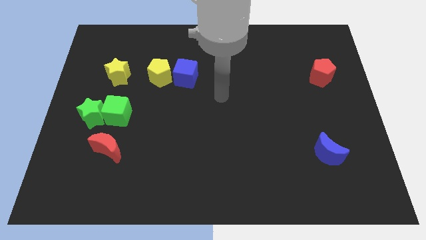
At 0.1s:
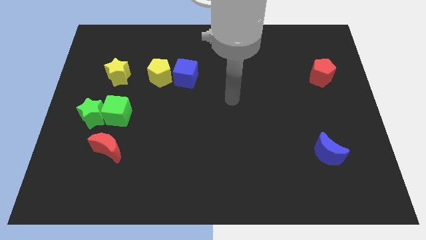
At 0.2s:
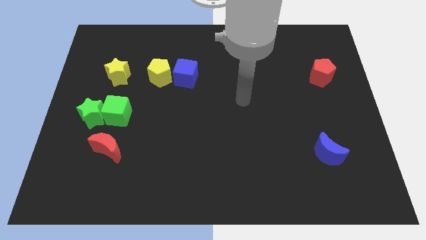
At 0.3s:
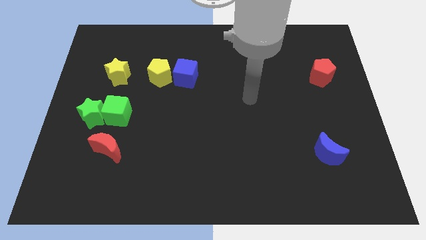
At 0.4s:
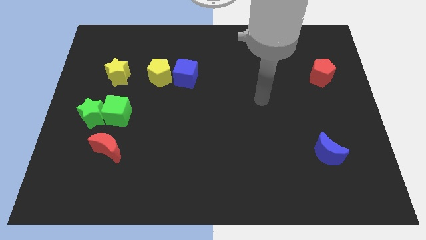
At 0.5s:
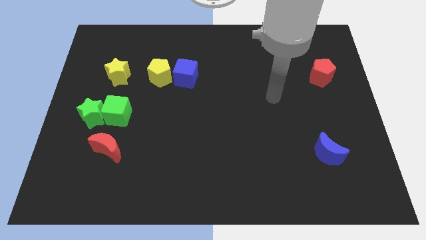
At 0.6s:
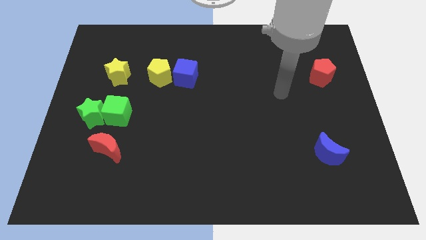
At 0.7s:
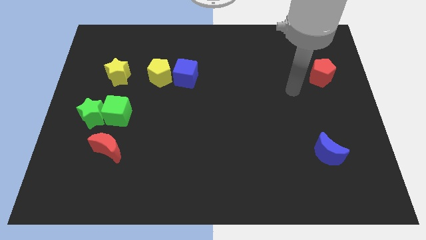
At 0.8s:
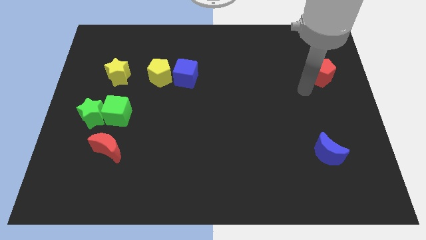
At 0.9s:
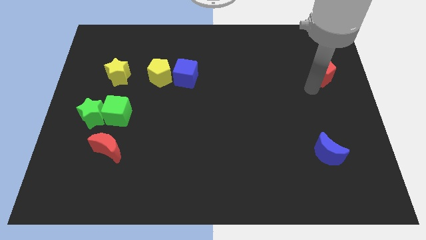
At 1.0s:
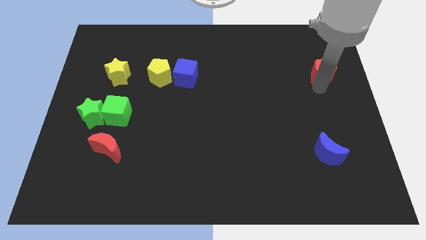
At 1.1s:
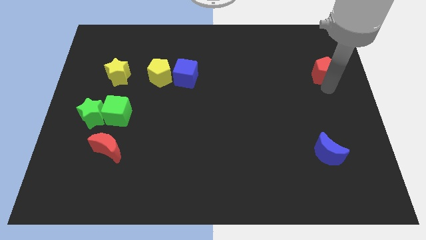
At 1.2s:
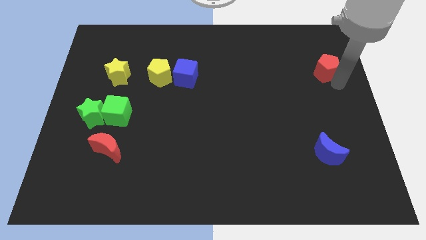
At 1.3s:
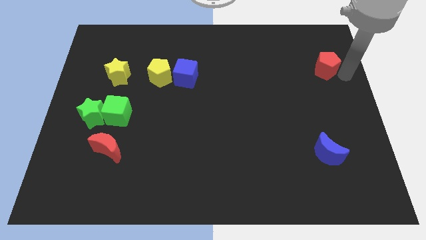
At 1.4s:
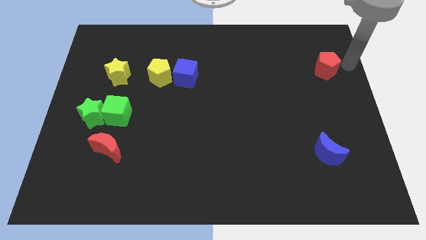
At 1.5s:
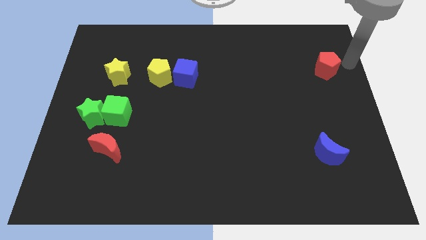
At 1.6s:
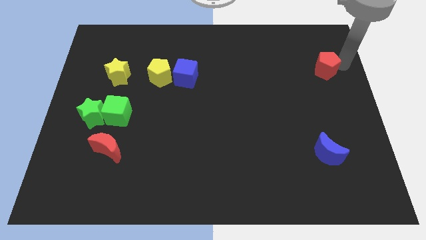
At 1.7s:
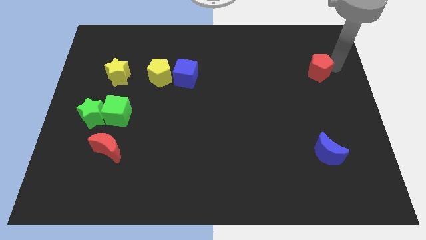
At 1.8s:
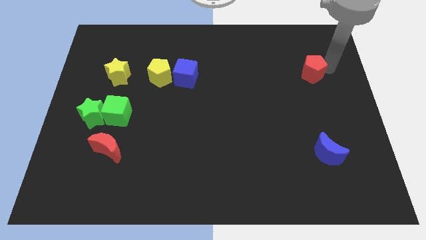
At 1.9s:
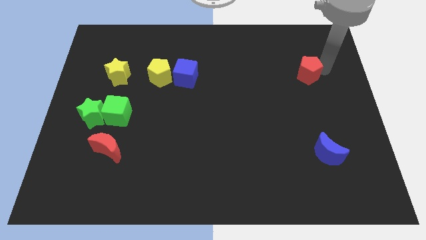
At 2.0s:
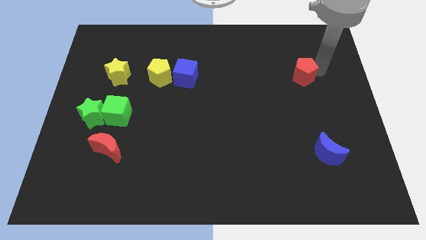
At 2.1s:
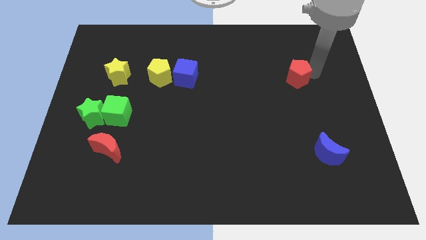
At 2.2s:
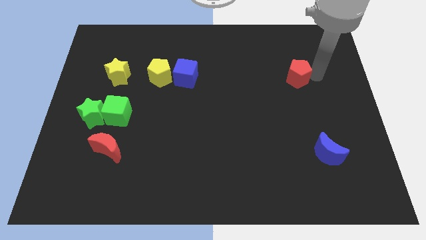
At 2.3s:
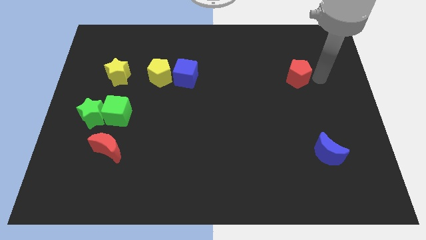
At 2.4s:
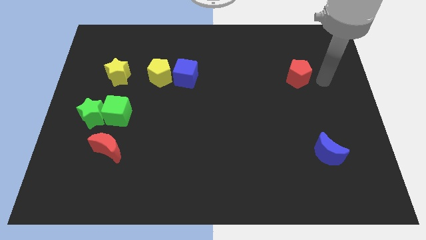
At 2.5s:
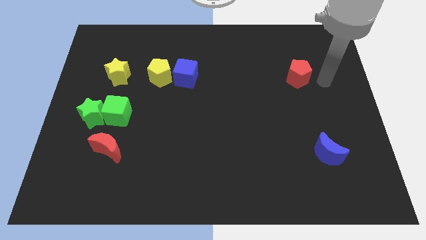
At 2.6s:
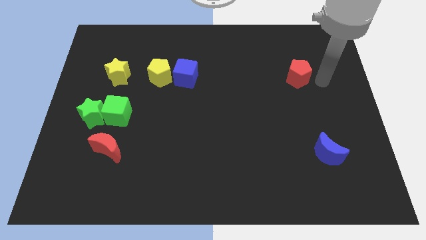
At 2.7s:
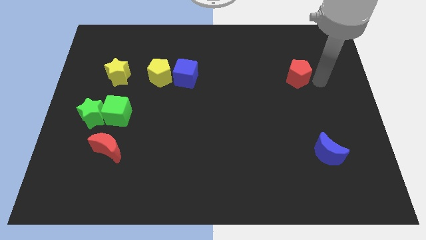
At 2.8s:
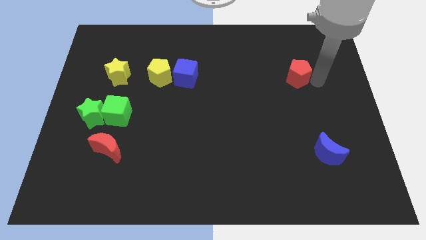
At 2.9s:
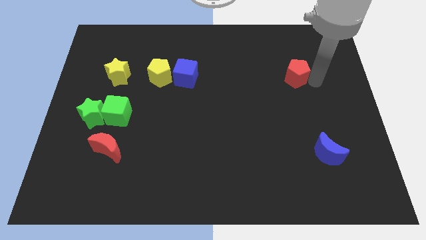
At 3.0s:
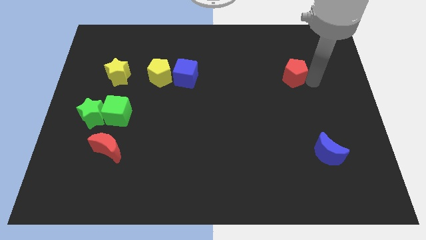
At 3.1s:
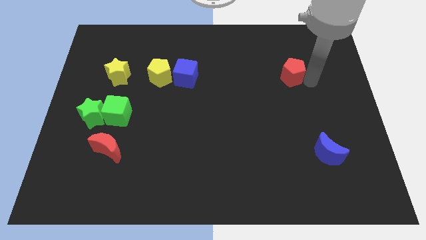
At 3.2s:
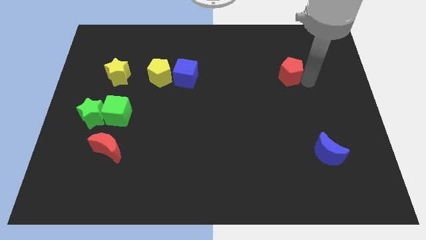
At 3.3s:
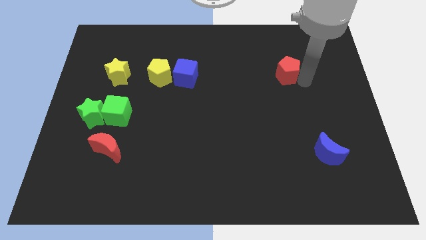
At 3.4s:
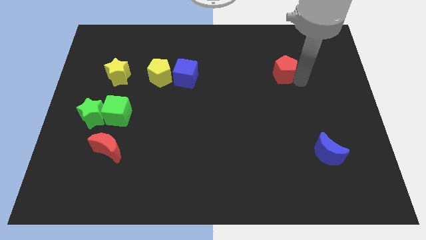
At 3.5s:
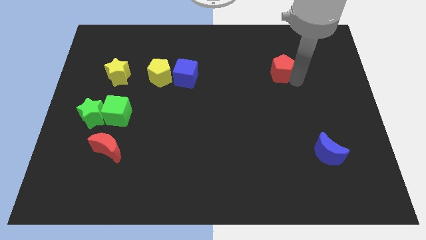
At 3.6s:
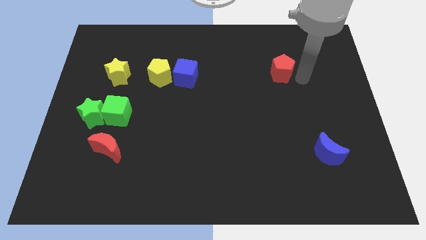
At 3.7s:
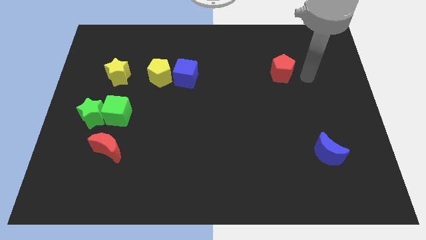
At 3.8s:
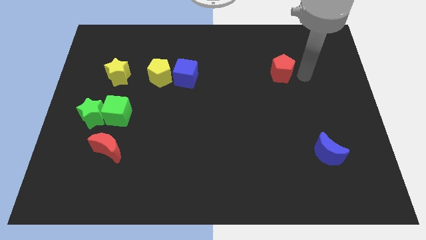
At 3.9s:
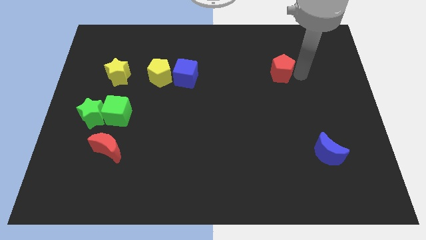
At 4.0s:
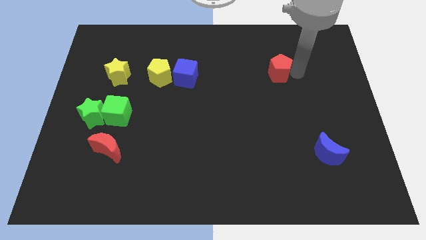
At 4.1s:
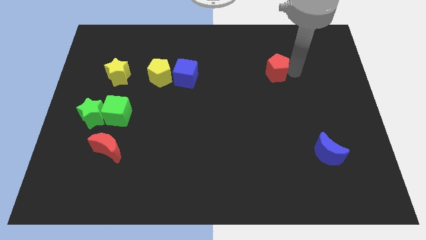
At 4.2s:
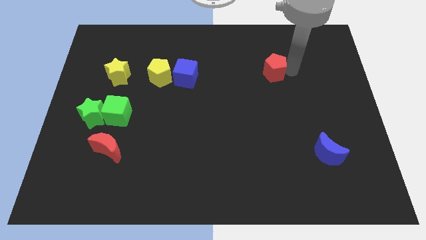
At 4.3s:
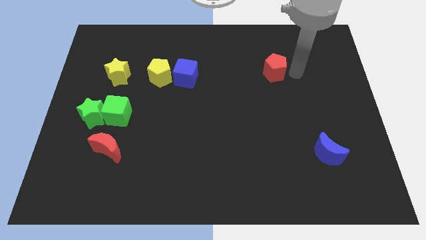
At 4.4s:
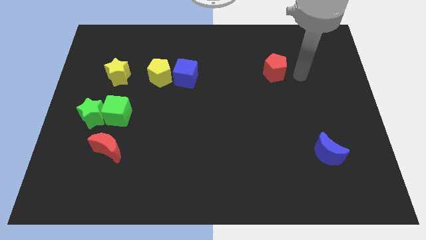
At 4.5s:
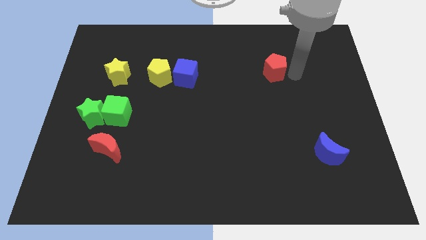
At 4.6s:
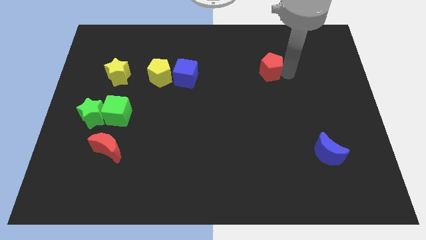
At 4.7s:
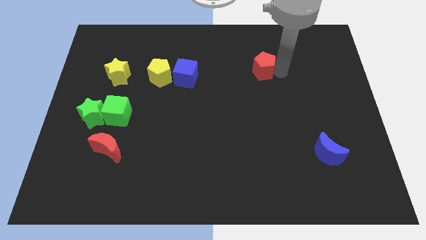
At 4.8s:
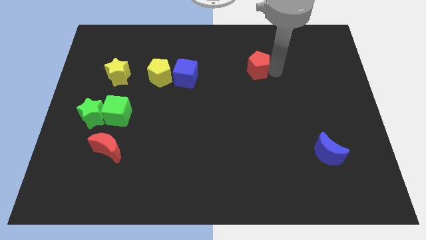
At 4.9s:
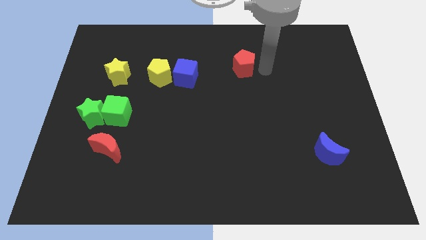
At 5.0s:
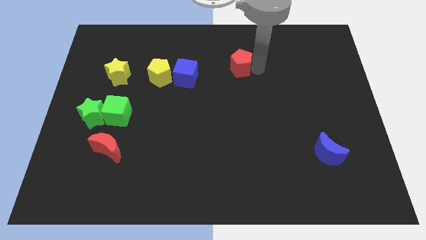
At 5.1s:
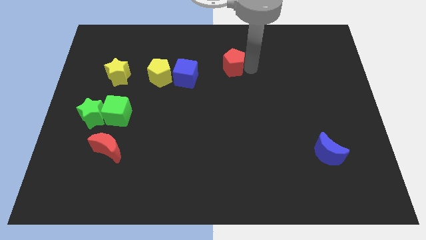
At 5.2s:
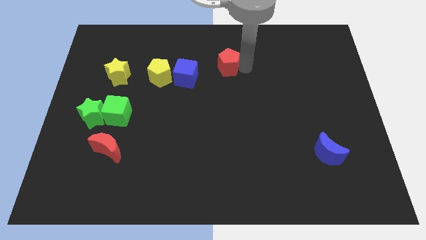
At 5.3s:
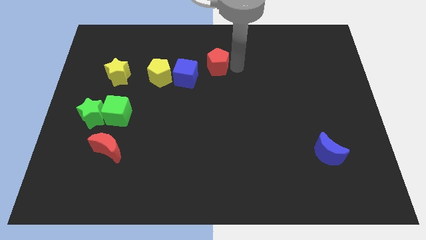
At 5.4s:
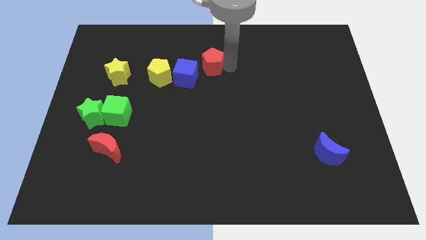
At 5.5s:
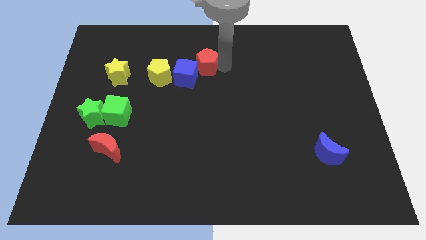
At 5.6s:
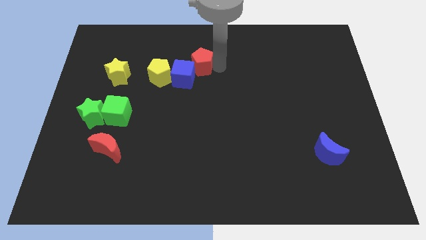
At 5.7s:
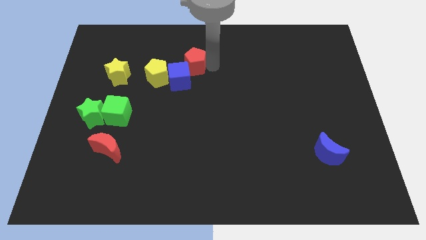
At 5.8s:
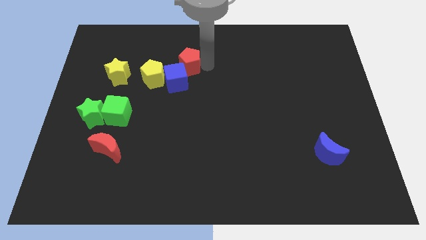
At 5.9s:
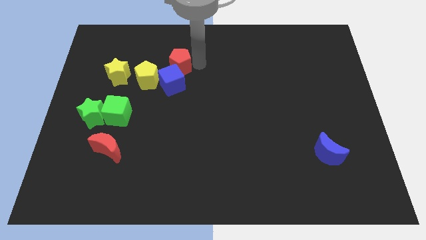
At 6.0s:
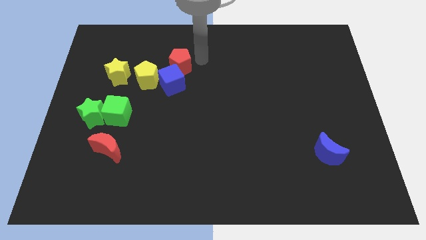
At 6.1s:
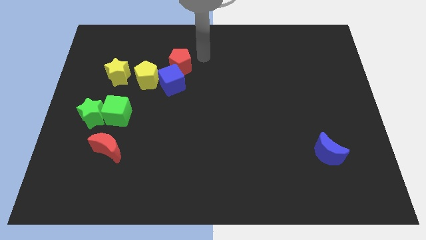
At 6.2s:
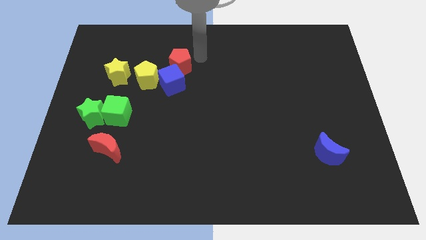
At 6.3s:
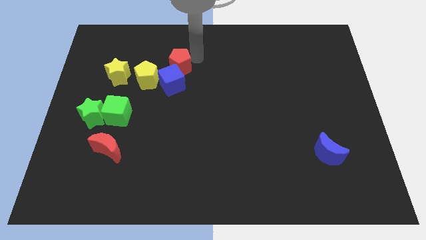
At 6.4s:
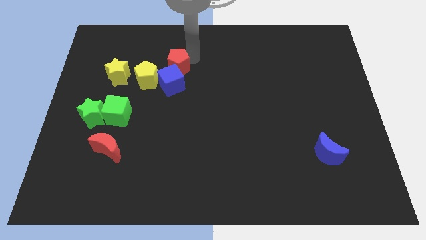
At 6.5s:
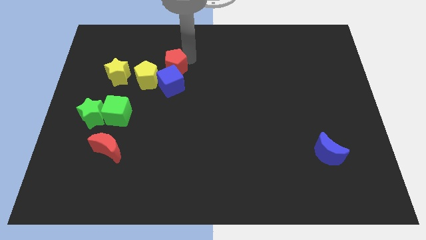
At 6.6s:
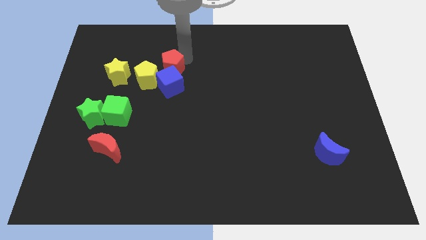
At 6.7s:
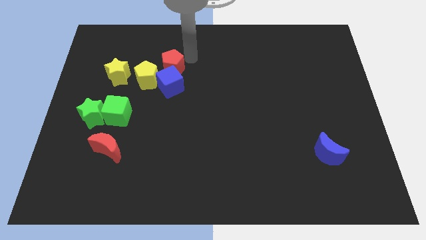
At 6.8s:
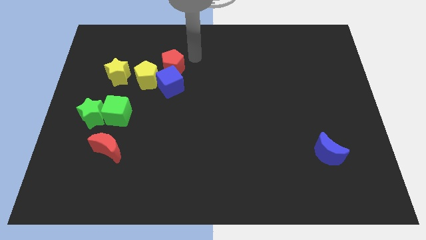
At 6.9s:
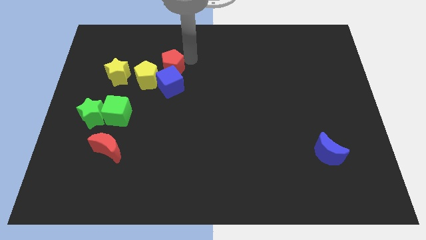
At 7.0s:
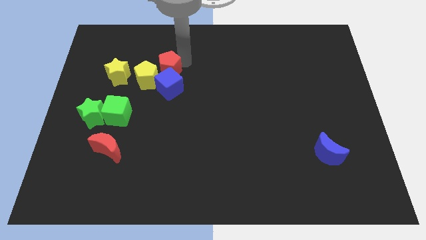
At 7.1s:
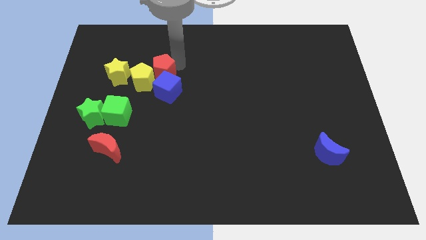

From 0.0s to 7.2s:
slide the red pentagon towards the yellow pentagon
